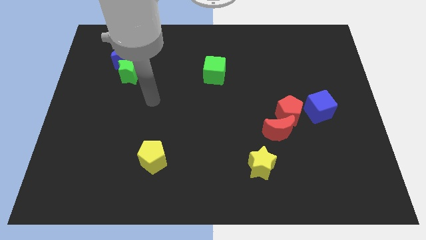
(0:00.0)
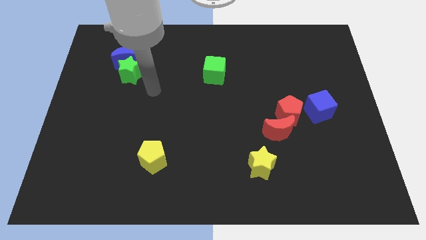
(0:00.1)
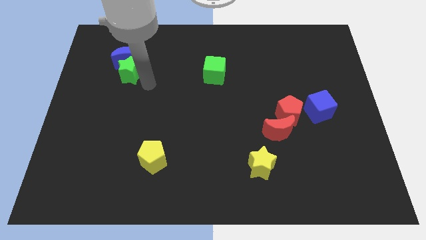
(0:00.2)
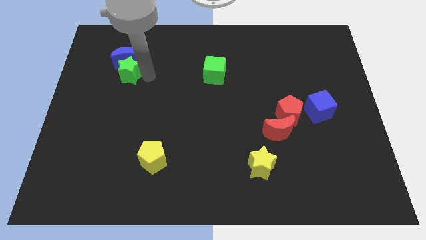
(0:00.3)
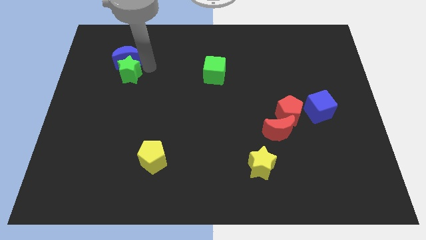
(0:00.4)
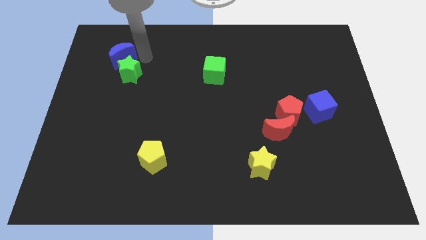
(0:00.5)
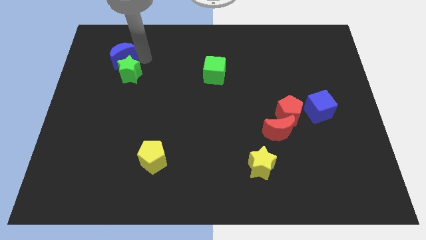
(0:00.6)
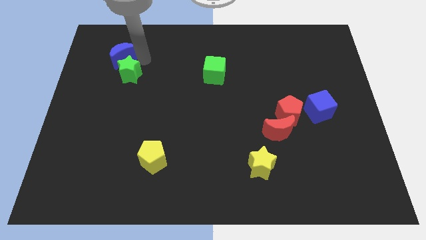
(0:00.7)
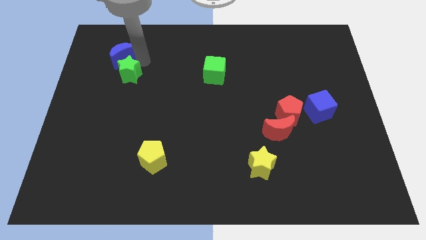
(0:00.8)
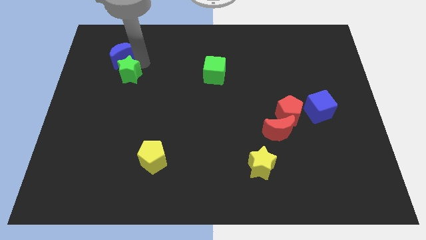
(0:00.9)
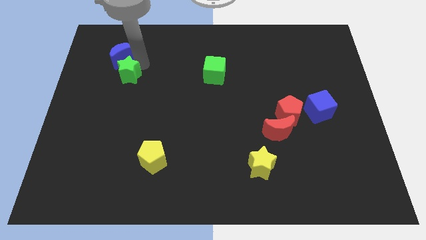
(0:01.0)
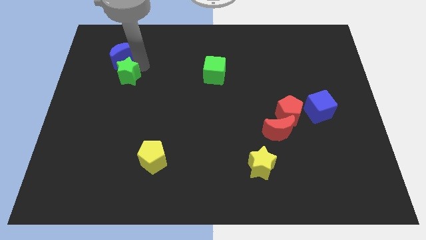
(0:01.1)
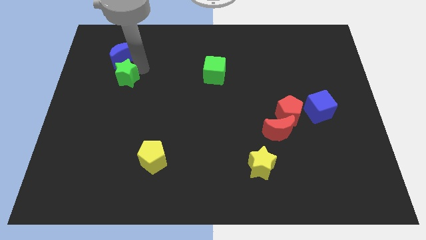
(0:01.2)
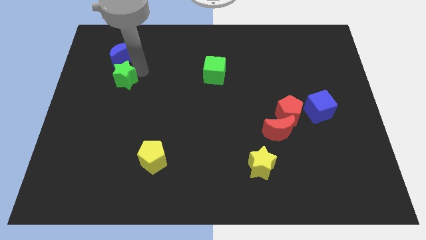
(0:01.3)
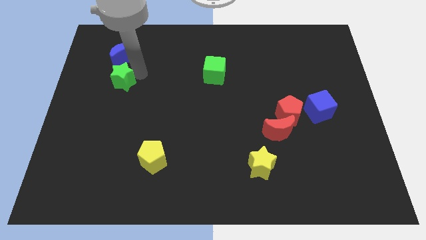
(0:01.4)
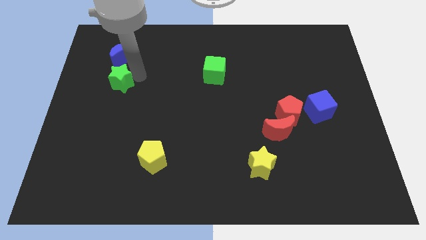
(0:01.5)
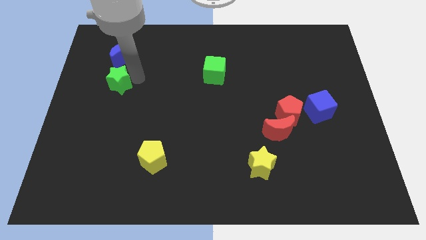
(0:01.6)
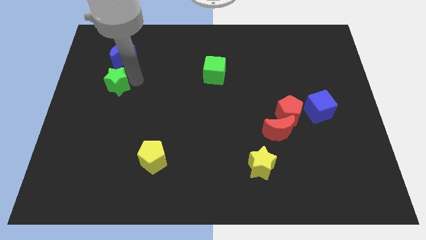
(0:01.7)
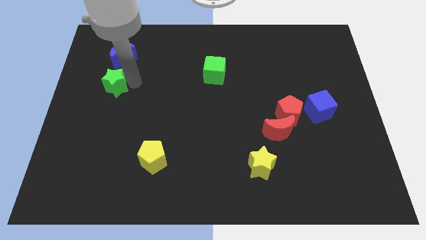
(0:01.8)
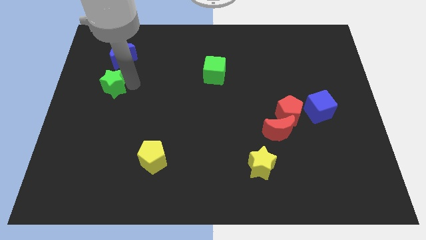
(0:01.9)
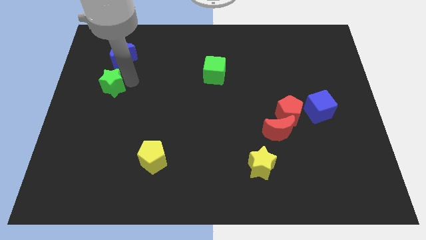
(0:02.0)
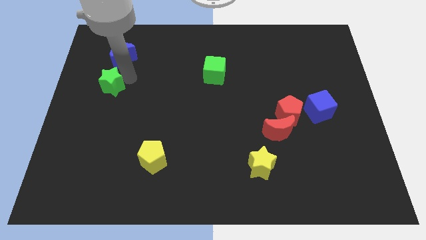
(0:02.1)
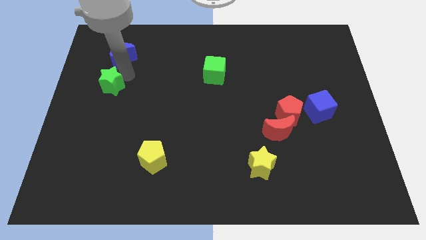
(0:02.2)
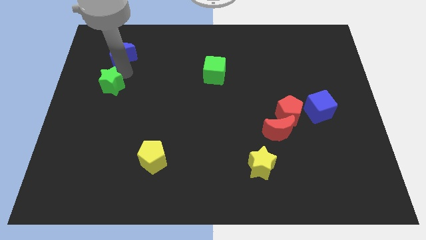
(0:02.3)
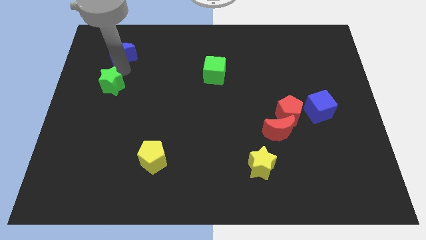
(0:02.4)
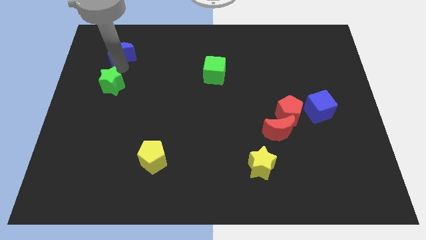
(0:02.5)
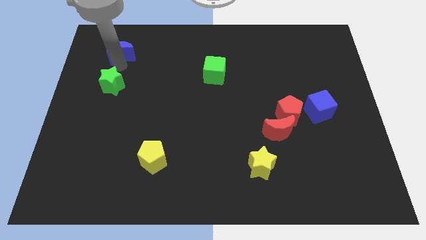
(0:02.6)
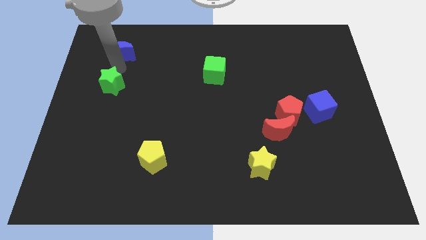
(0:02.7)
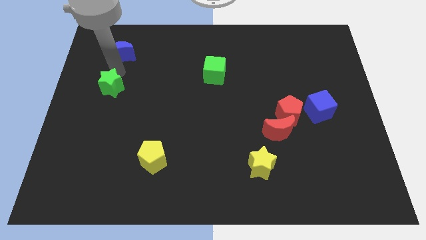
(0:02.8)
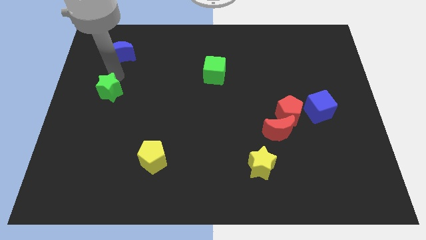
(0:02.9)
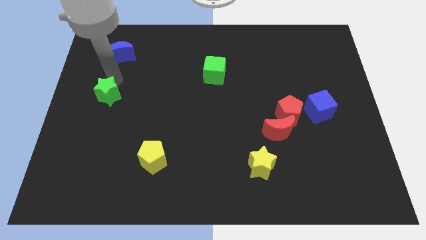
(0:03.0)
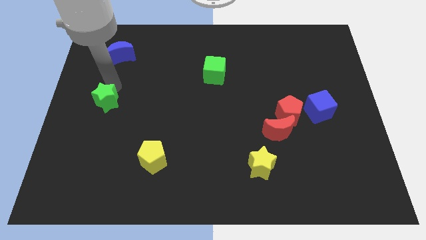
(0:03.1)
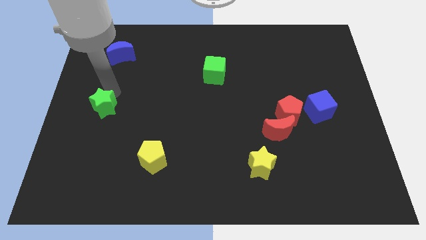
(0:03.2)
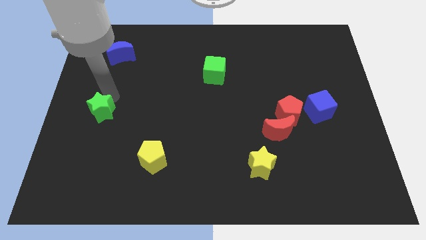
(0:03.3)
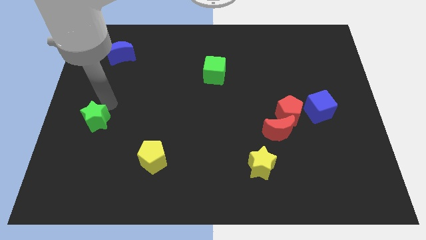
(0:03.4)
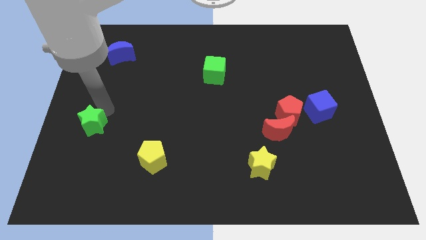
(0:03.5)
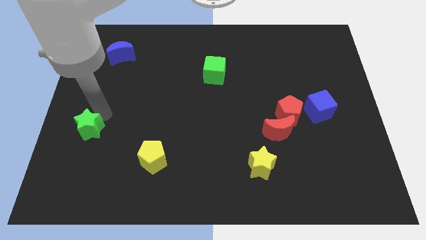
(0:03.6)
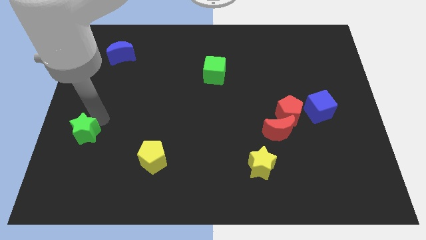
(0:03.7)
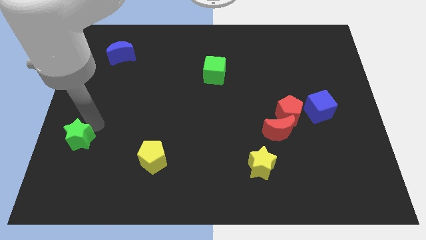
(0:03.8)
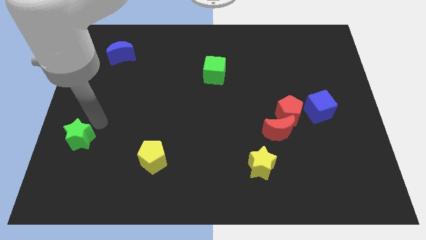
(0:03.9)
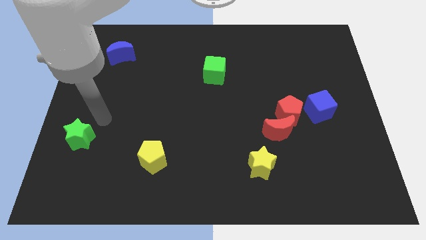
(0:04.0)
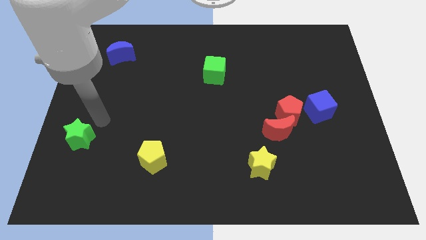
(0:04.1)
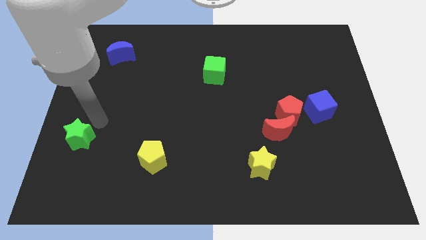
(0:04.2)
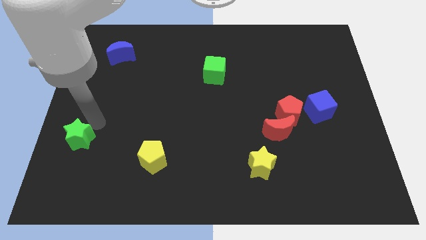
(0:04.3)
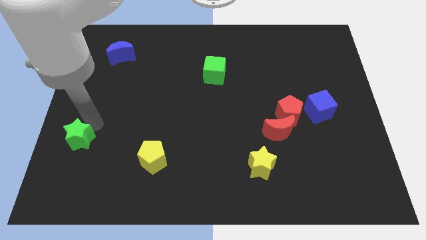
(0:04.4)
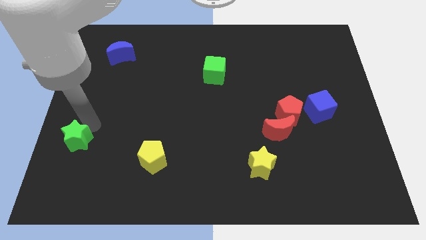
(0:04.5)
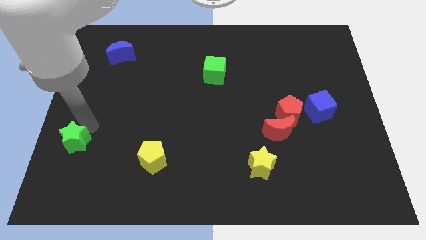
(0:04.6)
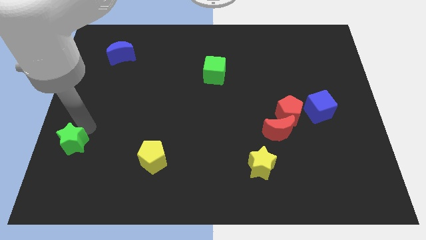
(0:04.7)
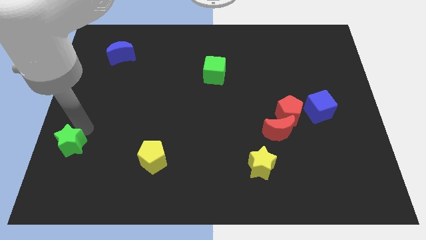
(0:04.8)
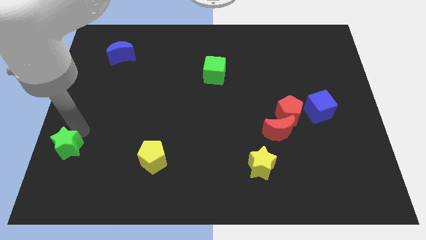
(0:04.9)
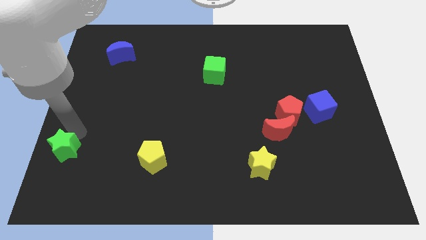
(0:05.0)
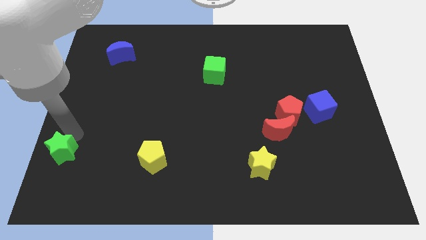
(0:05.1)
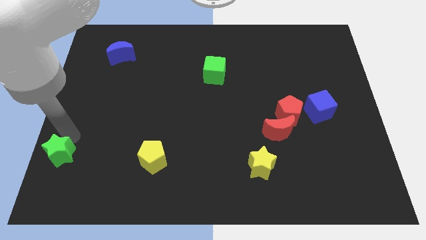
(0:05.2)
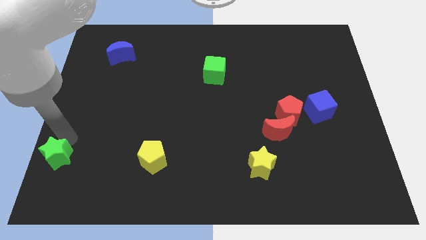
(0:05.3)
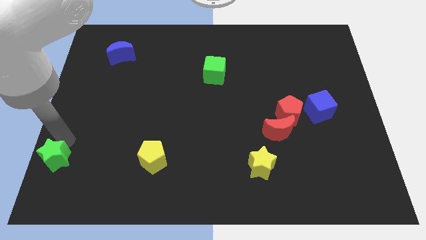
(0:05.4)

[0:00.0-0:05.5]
push the green star to the bottom left
